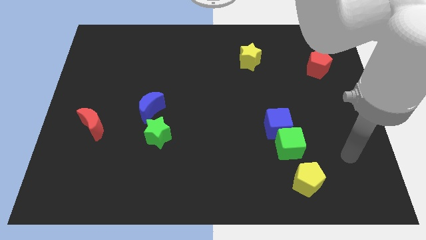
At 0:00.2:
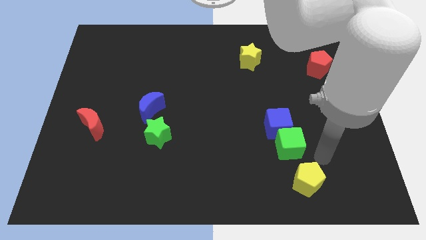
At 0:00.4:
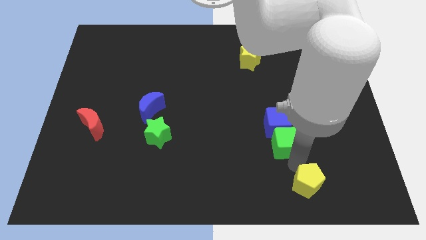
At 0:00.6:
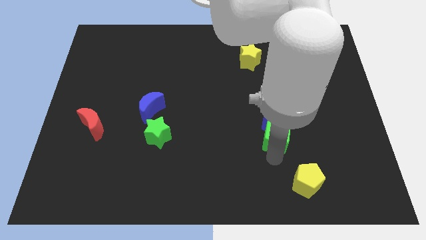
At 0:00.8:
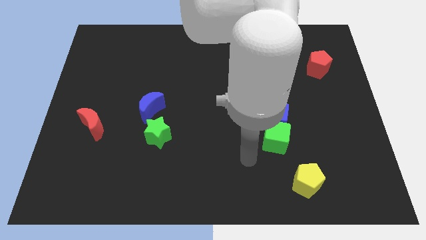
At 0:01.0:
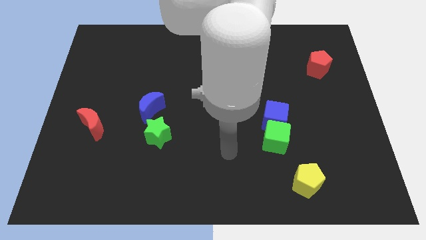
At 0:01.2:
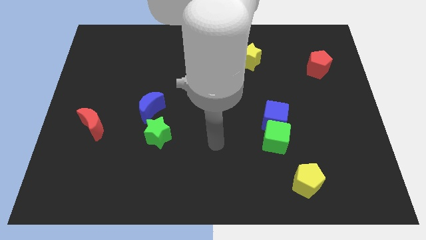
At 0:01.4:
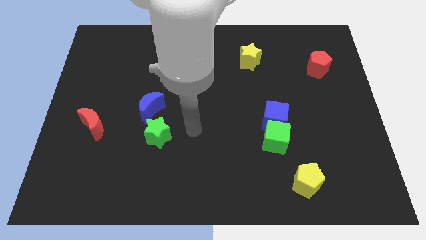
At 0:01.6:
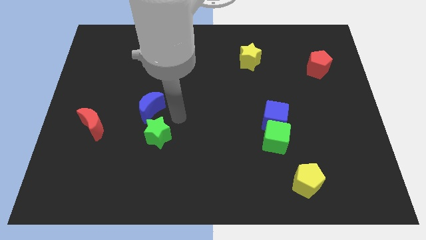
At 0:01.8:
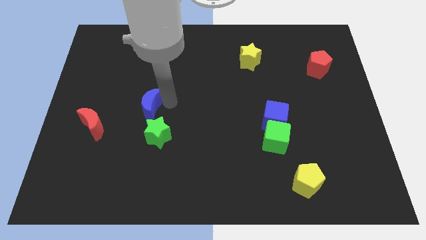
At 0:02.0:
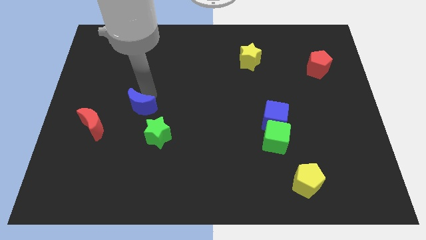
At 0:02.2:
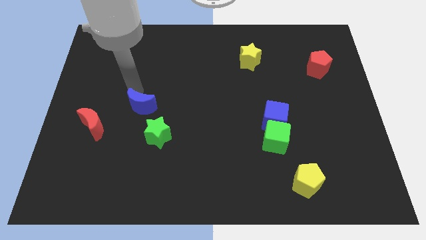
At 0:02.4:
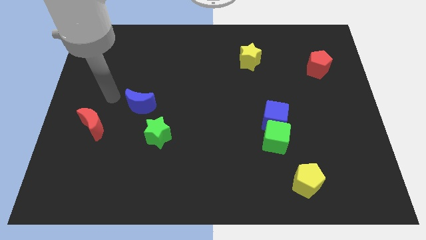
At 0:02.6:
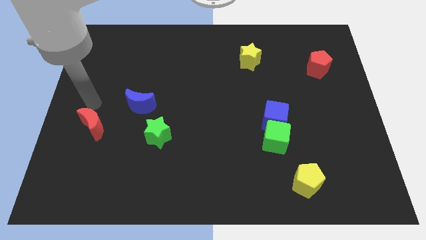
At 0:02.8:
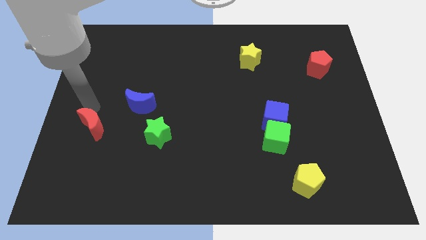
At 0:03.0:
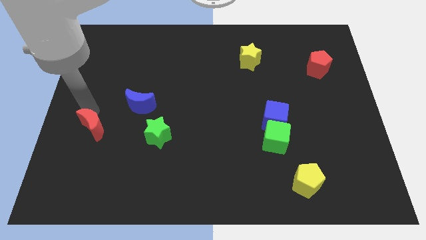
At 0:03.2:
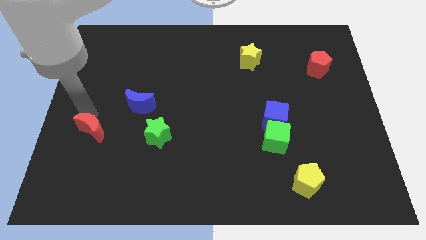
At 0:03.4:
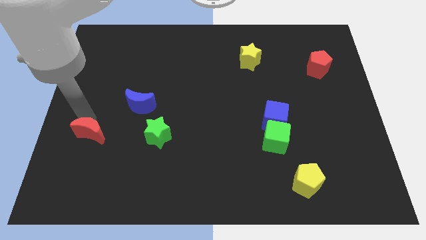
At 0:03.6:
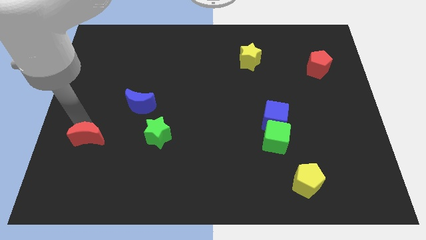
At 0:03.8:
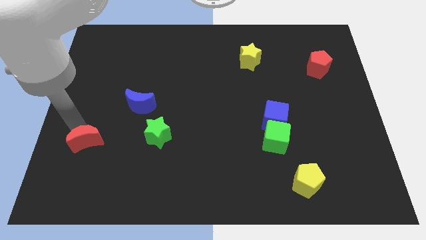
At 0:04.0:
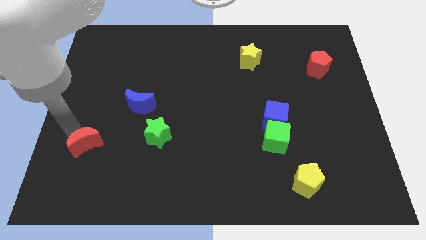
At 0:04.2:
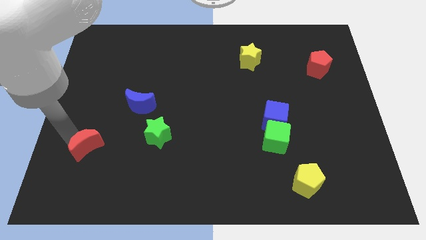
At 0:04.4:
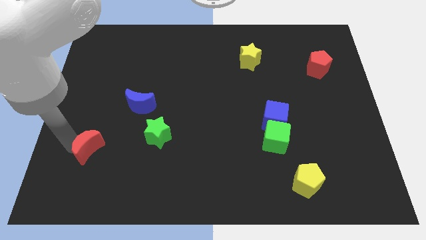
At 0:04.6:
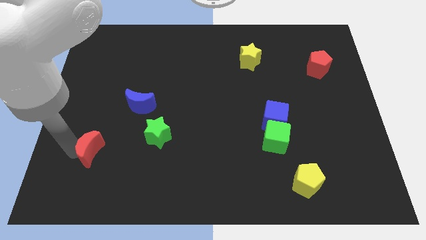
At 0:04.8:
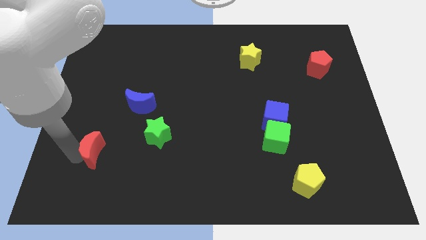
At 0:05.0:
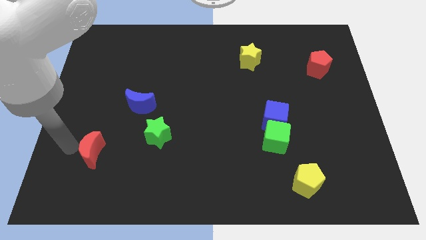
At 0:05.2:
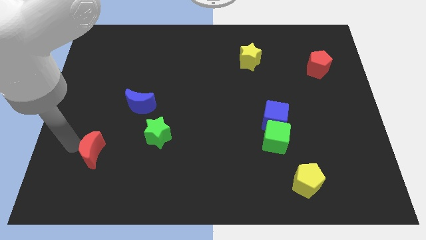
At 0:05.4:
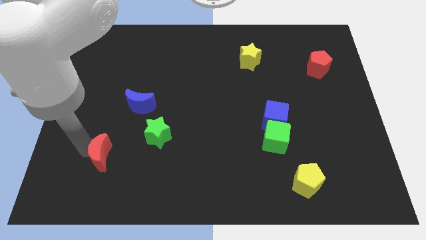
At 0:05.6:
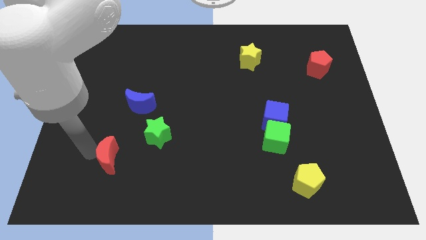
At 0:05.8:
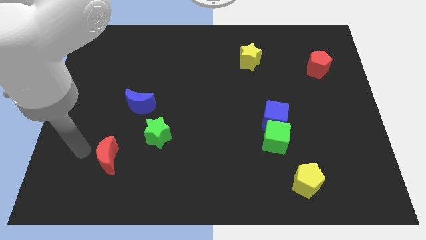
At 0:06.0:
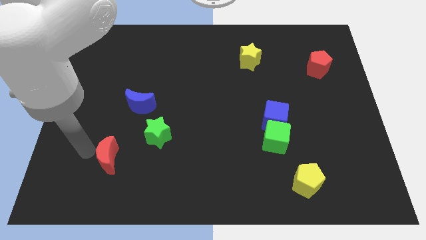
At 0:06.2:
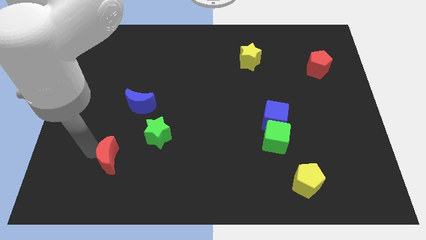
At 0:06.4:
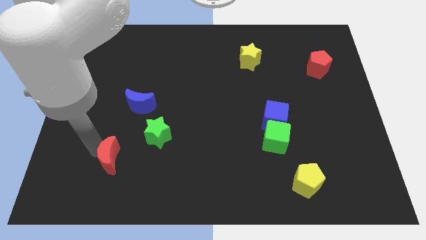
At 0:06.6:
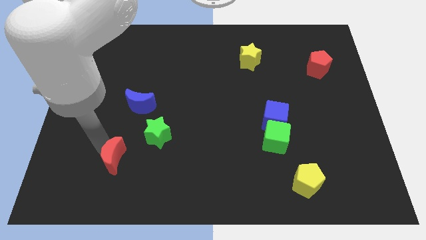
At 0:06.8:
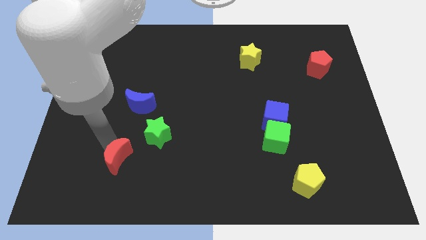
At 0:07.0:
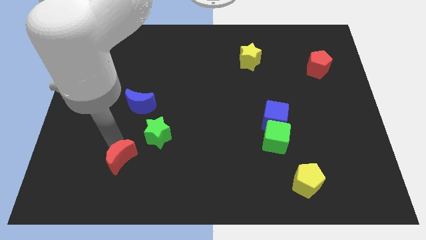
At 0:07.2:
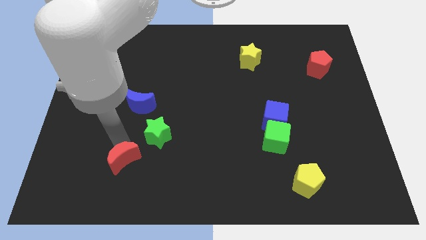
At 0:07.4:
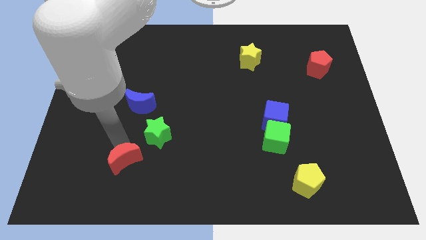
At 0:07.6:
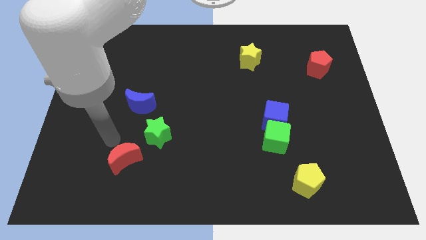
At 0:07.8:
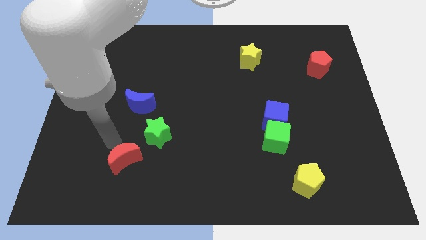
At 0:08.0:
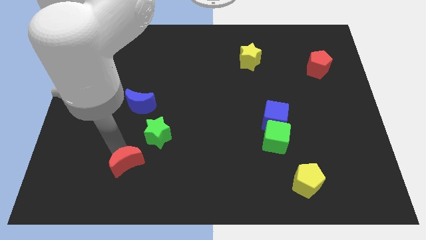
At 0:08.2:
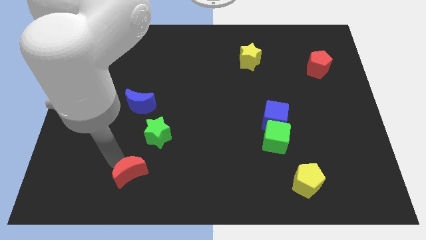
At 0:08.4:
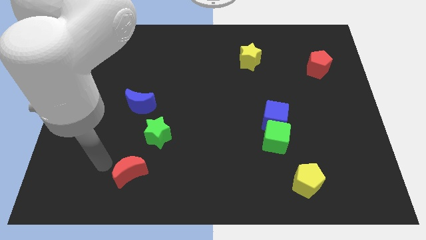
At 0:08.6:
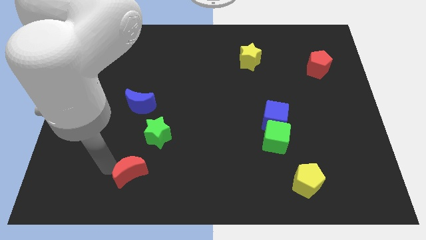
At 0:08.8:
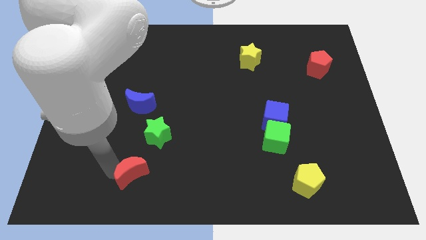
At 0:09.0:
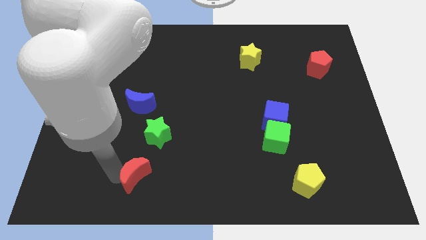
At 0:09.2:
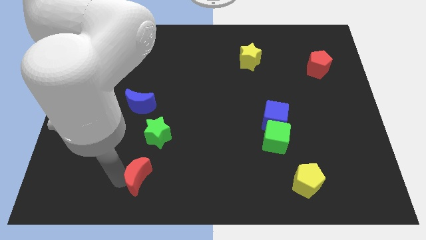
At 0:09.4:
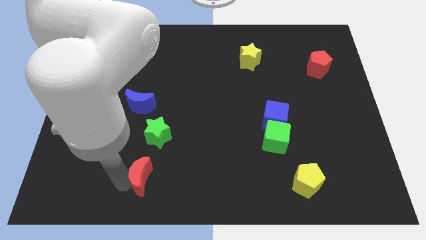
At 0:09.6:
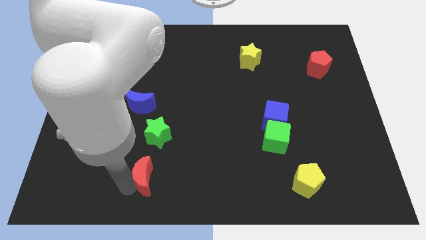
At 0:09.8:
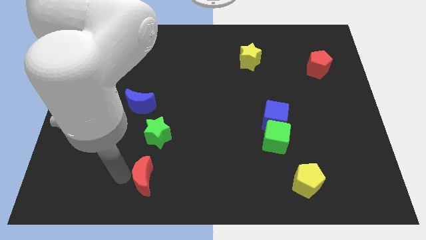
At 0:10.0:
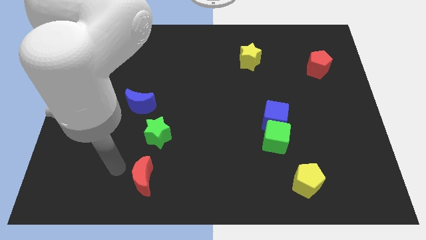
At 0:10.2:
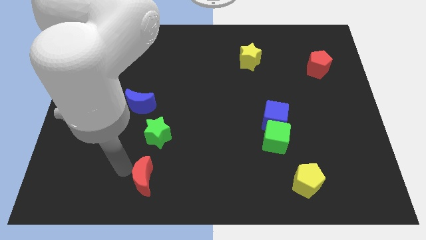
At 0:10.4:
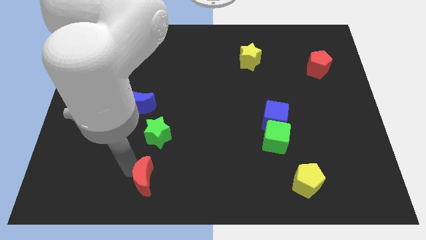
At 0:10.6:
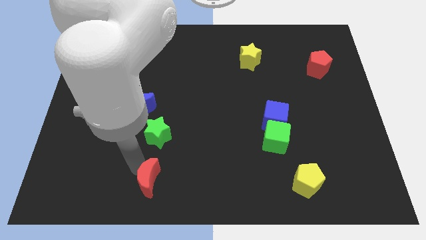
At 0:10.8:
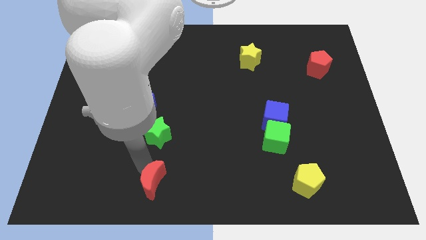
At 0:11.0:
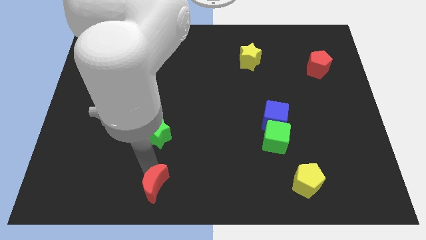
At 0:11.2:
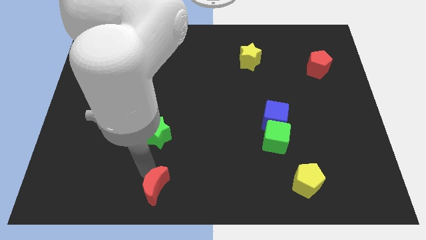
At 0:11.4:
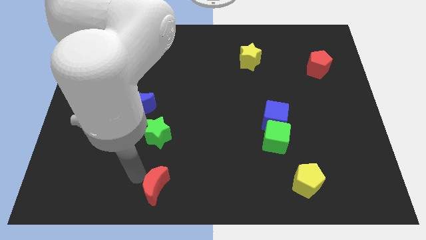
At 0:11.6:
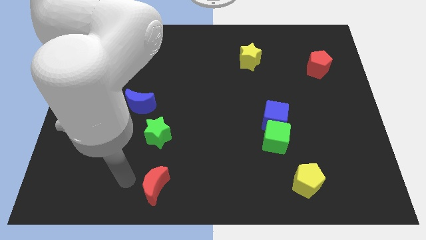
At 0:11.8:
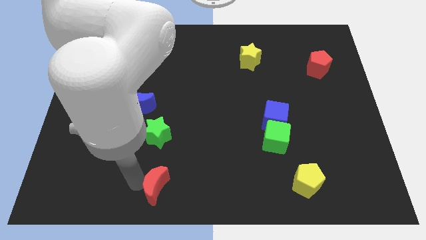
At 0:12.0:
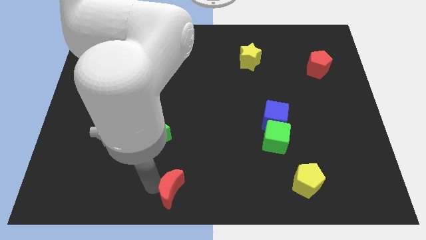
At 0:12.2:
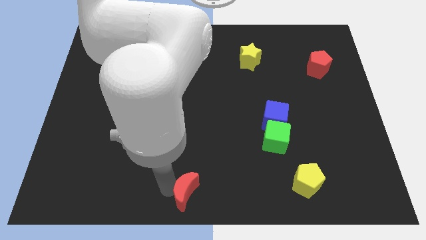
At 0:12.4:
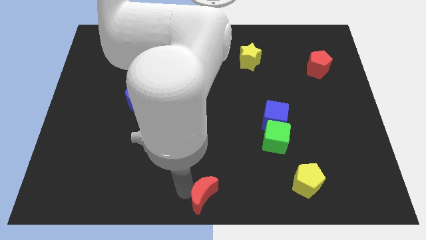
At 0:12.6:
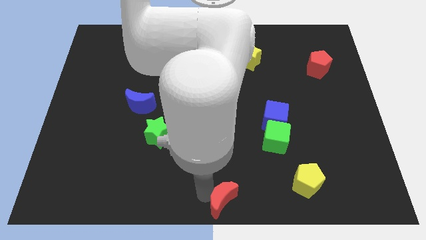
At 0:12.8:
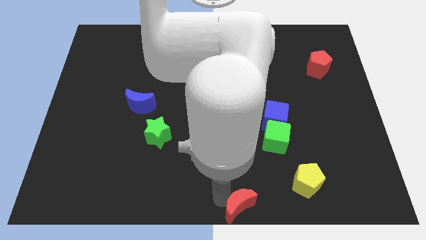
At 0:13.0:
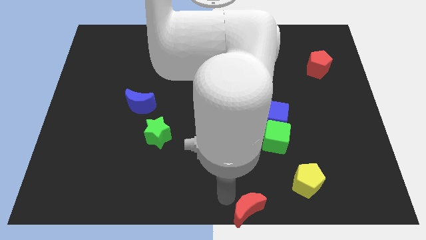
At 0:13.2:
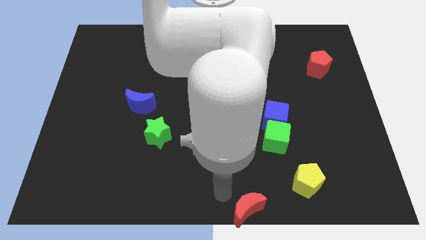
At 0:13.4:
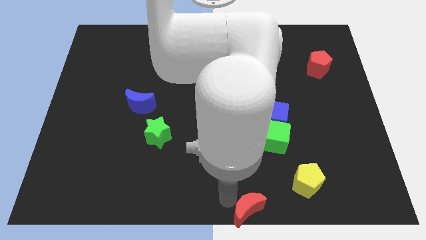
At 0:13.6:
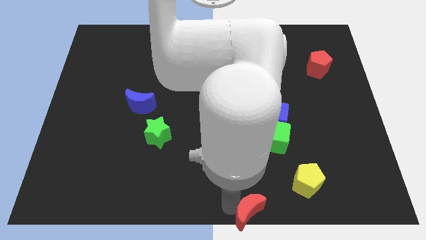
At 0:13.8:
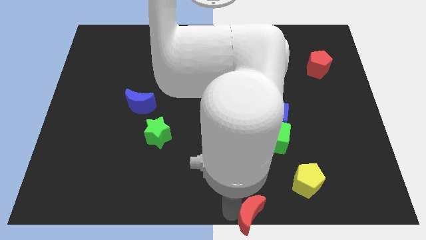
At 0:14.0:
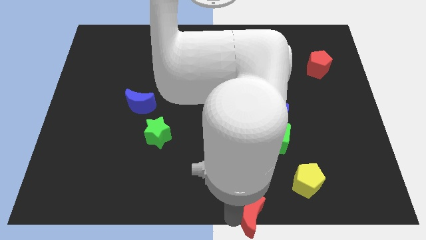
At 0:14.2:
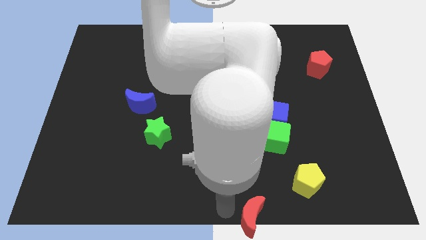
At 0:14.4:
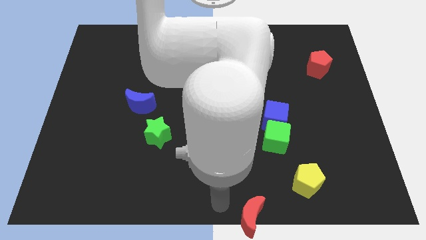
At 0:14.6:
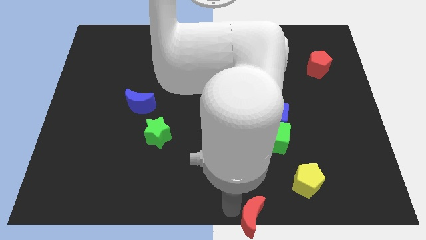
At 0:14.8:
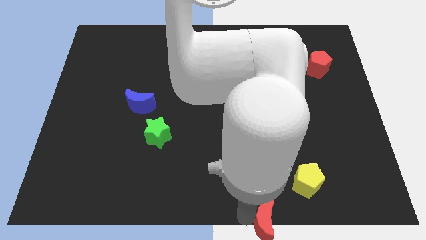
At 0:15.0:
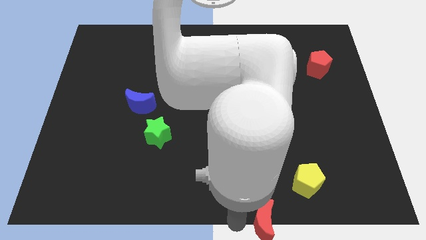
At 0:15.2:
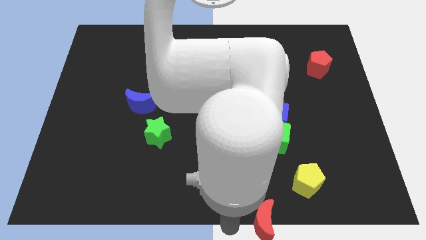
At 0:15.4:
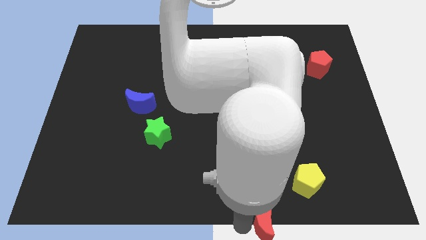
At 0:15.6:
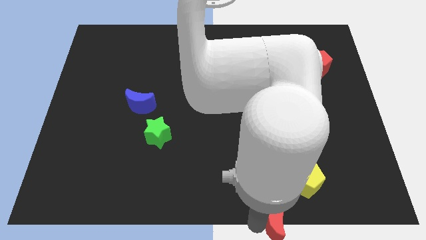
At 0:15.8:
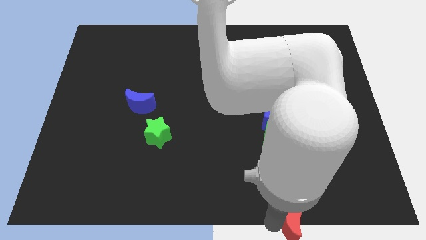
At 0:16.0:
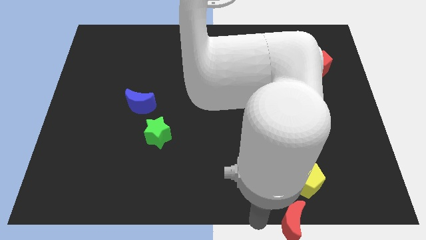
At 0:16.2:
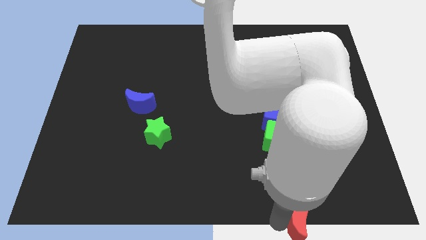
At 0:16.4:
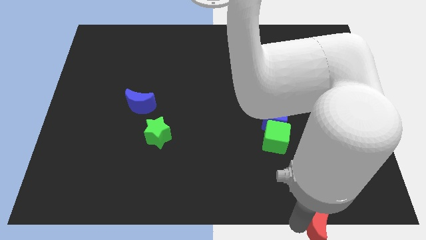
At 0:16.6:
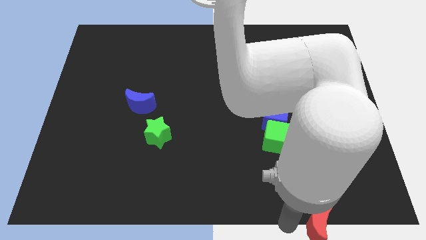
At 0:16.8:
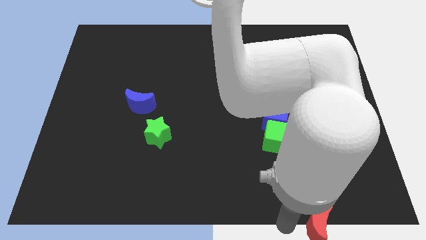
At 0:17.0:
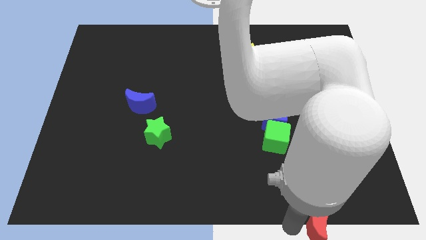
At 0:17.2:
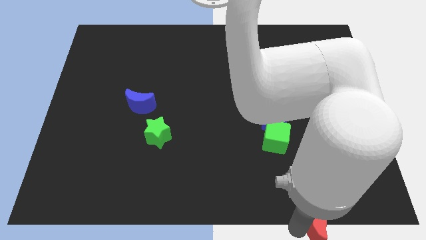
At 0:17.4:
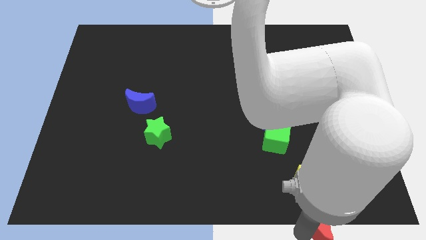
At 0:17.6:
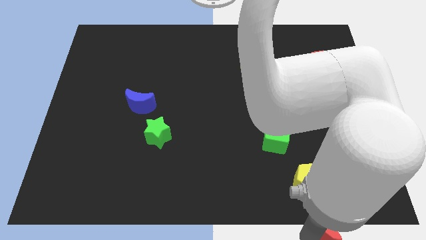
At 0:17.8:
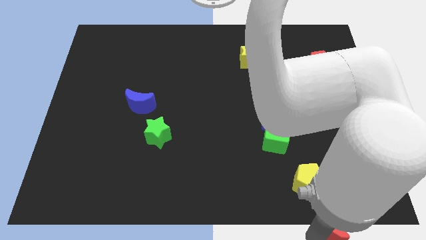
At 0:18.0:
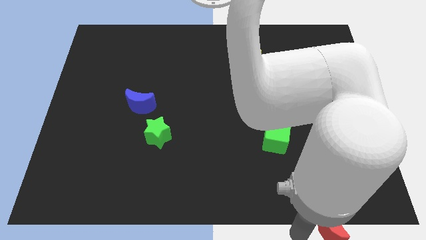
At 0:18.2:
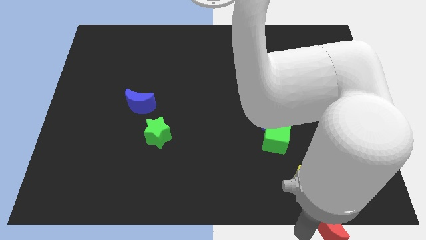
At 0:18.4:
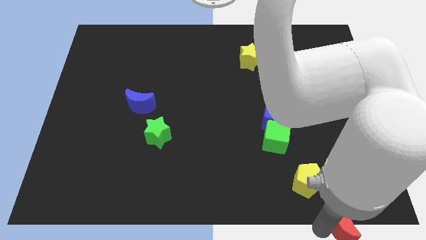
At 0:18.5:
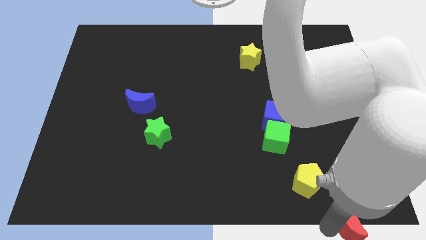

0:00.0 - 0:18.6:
put the red moon to the bottom right corner
